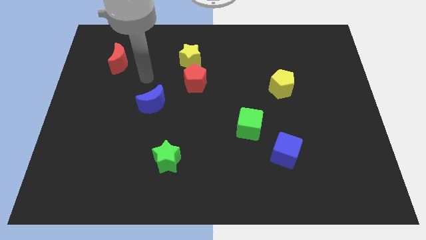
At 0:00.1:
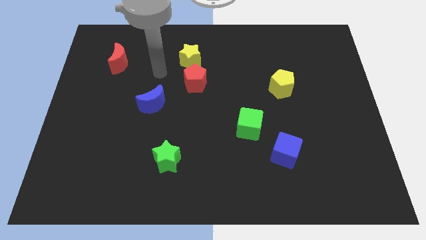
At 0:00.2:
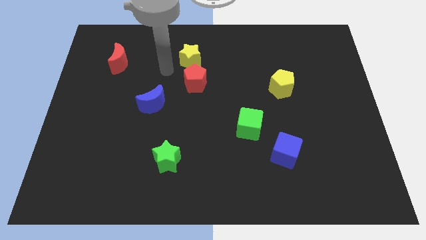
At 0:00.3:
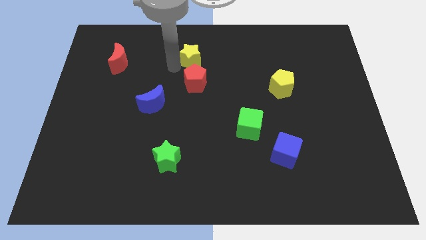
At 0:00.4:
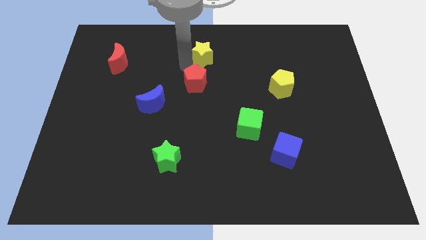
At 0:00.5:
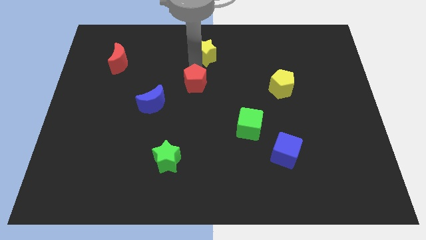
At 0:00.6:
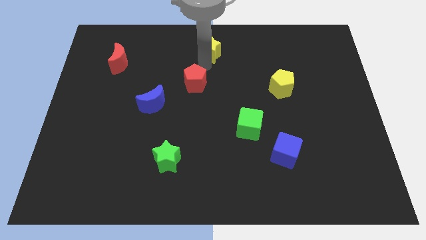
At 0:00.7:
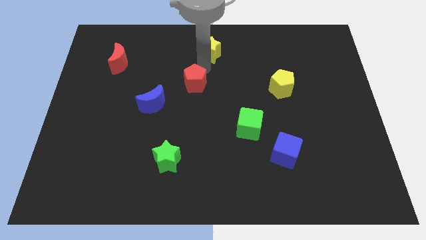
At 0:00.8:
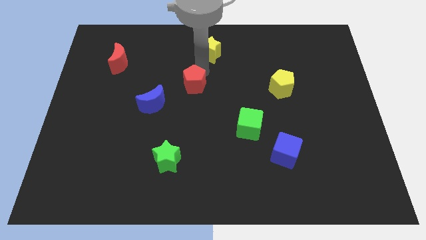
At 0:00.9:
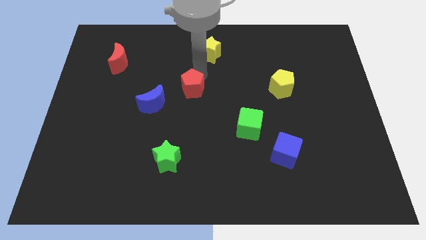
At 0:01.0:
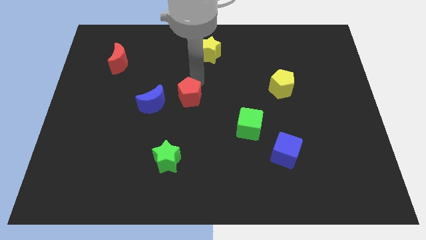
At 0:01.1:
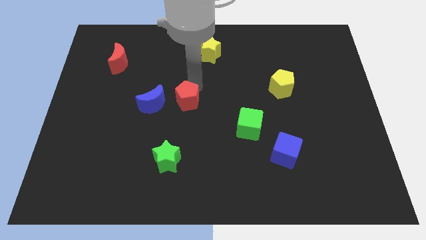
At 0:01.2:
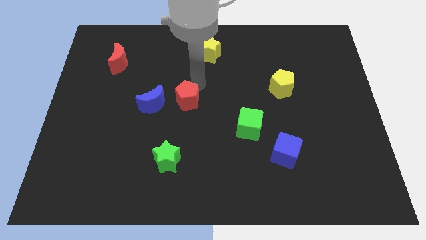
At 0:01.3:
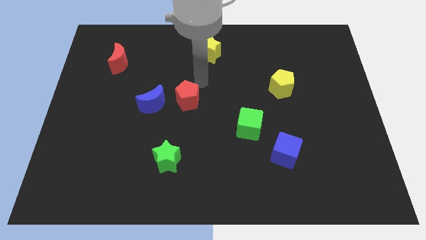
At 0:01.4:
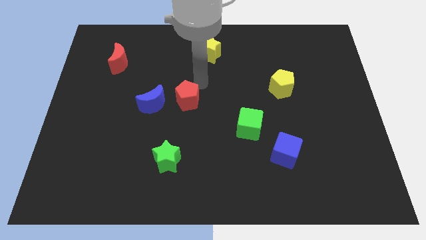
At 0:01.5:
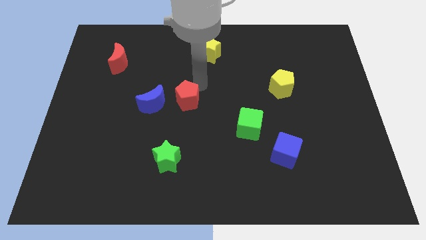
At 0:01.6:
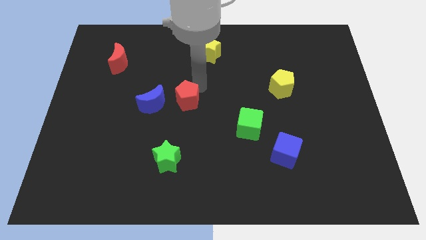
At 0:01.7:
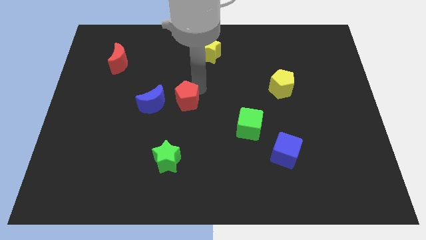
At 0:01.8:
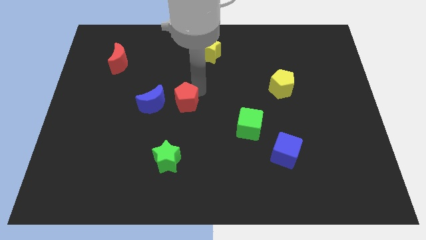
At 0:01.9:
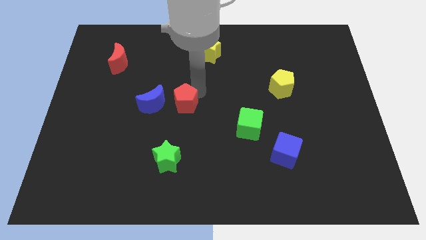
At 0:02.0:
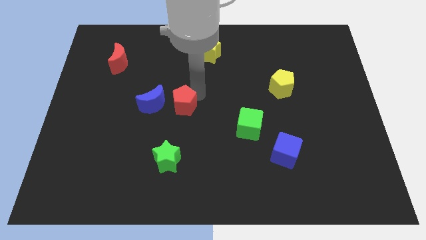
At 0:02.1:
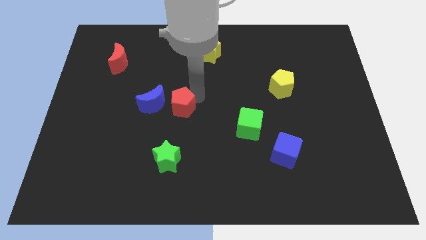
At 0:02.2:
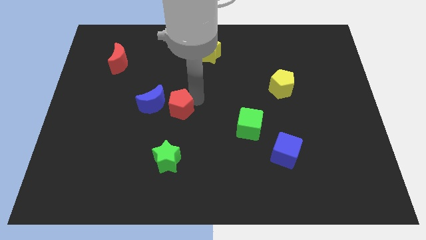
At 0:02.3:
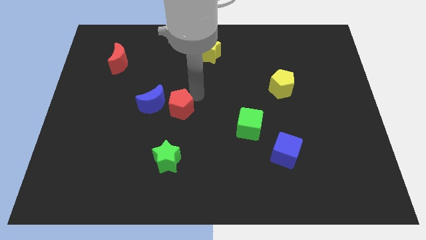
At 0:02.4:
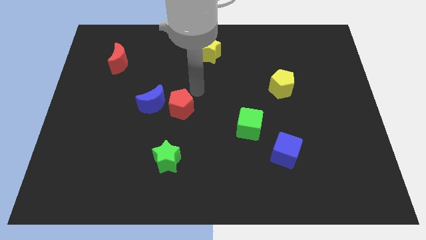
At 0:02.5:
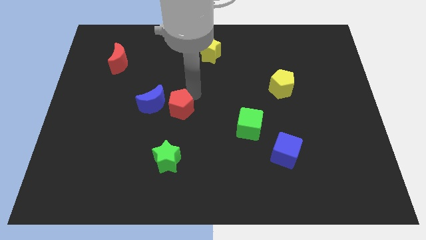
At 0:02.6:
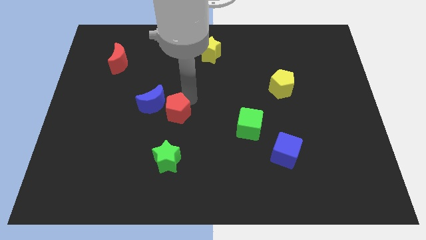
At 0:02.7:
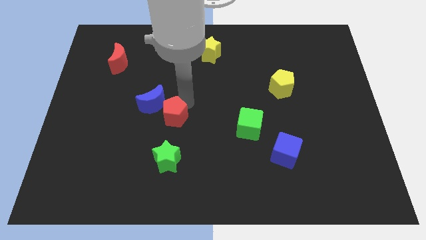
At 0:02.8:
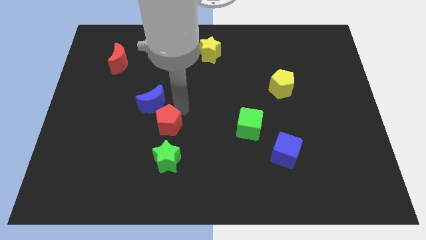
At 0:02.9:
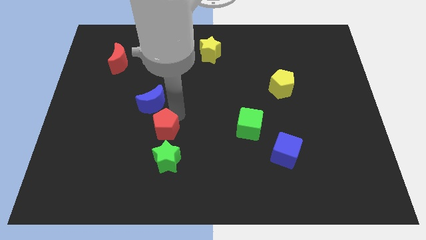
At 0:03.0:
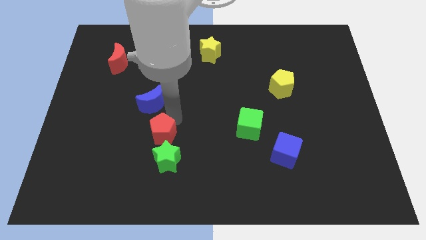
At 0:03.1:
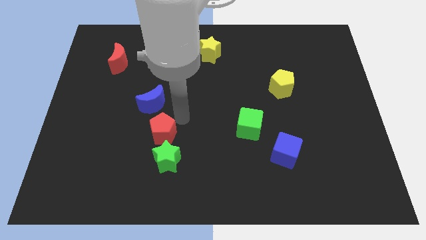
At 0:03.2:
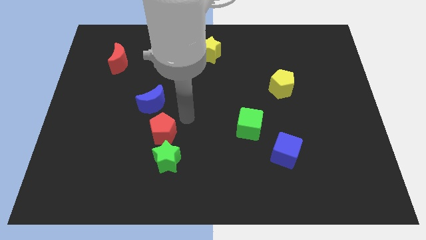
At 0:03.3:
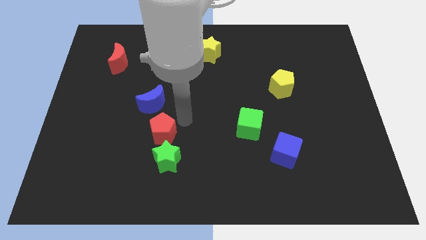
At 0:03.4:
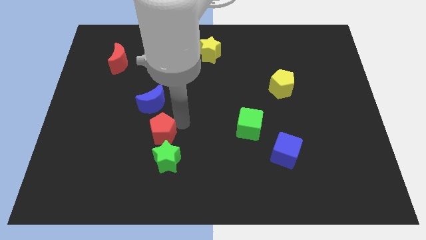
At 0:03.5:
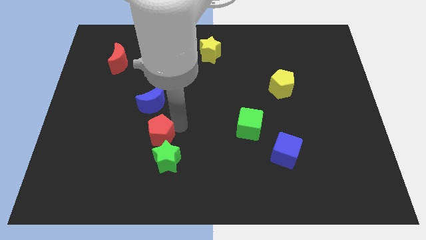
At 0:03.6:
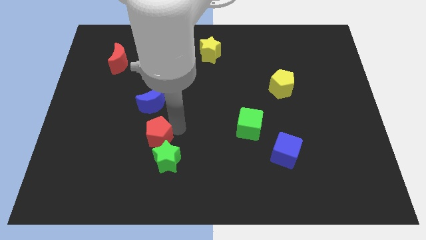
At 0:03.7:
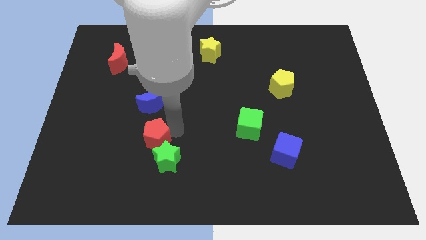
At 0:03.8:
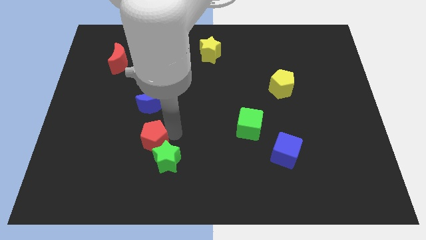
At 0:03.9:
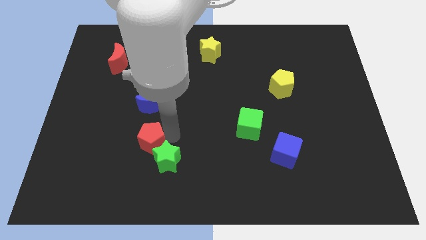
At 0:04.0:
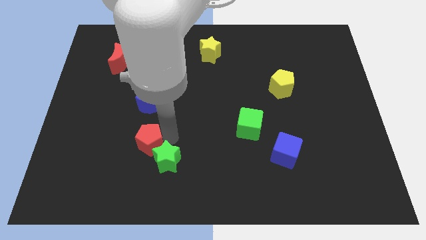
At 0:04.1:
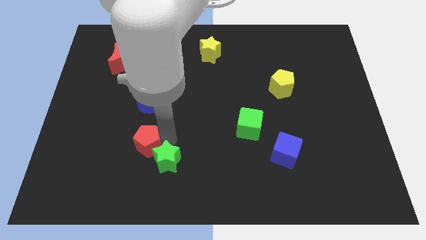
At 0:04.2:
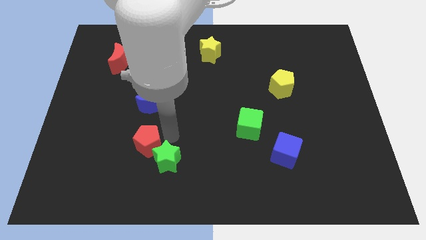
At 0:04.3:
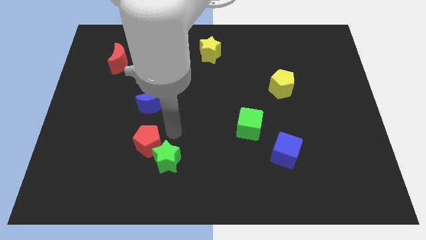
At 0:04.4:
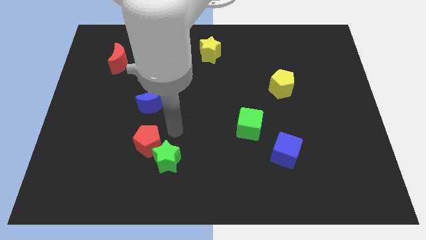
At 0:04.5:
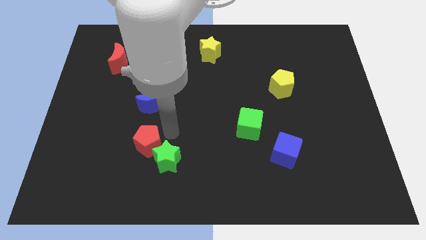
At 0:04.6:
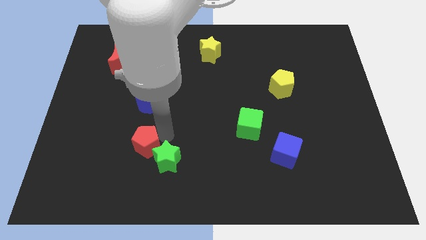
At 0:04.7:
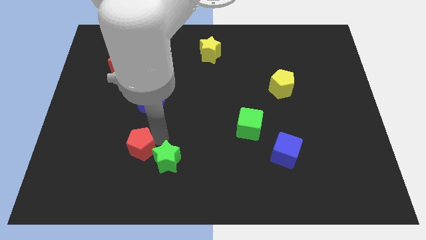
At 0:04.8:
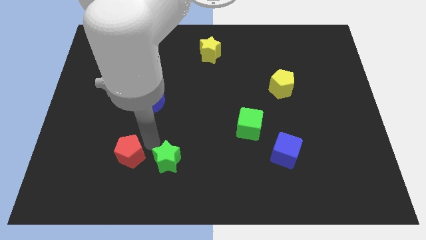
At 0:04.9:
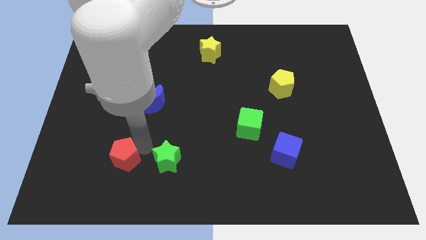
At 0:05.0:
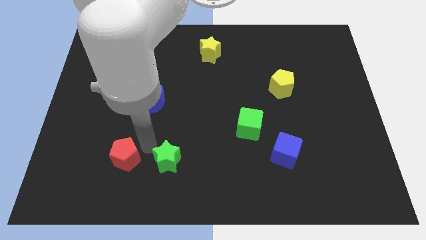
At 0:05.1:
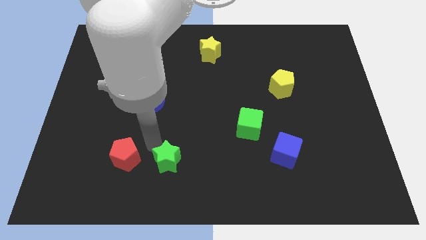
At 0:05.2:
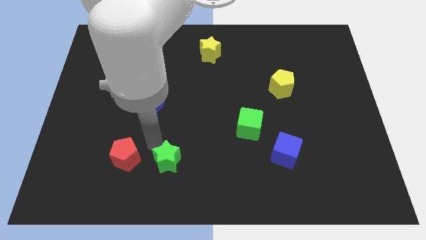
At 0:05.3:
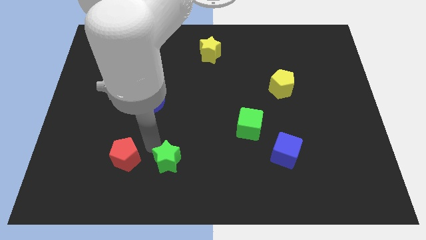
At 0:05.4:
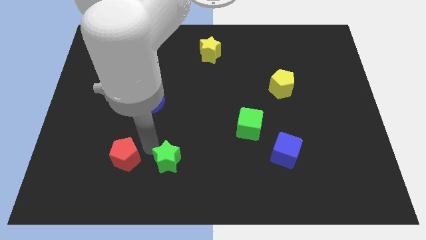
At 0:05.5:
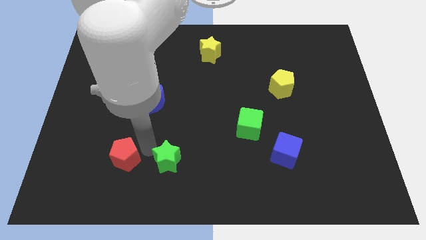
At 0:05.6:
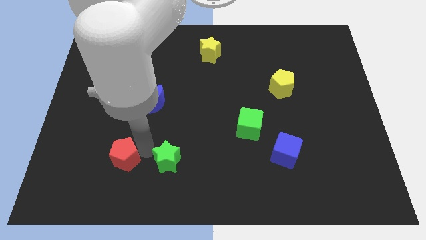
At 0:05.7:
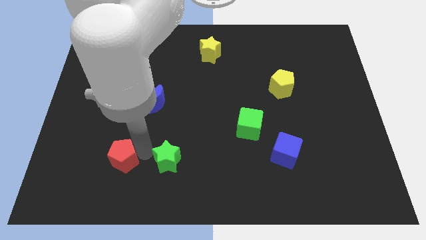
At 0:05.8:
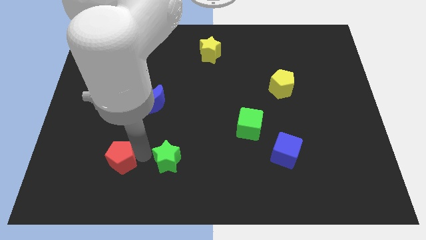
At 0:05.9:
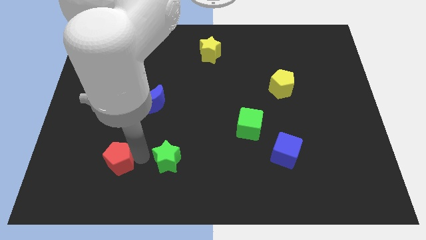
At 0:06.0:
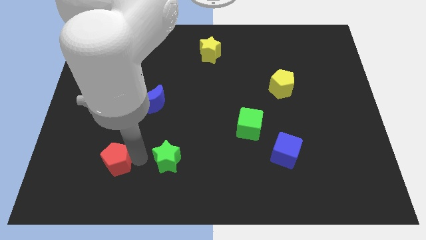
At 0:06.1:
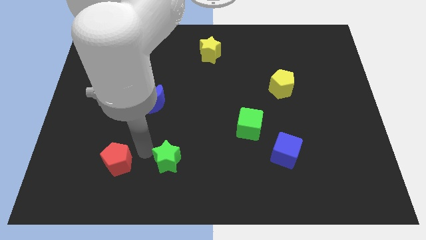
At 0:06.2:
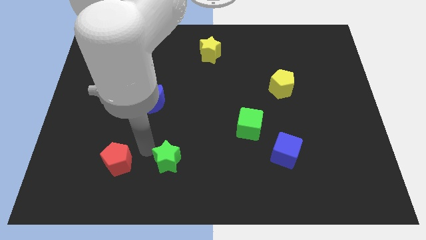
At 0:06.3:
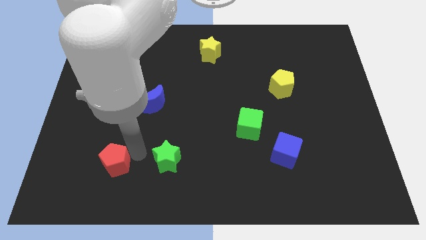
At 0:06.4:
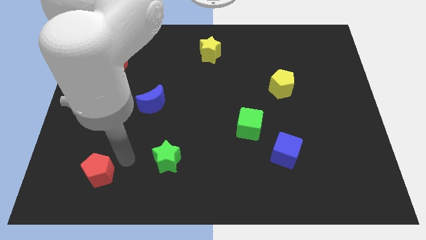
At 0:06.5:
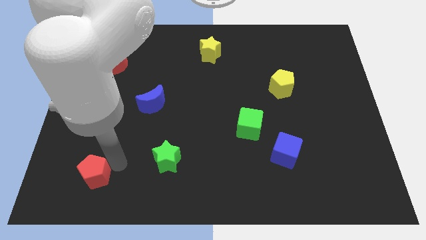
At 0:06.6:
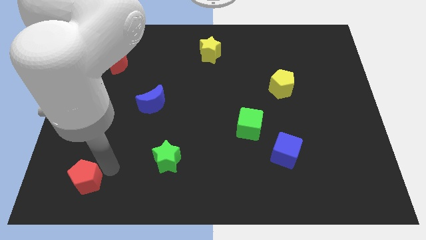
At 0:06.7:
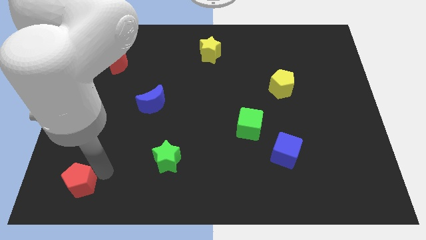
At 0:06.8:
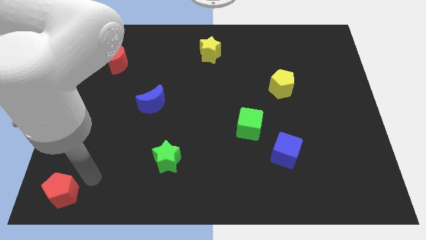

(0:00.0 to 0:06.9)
slide the red pentagon to the bottom left corner
